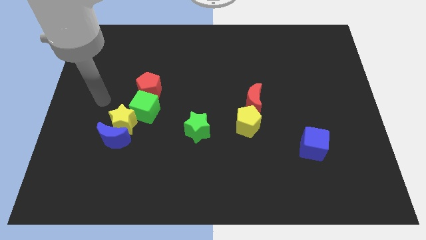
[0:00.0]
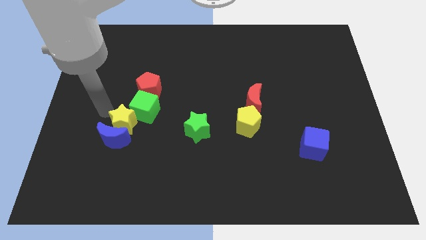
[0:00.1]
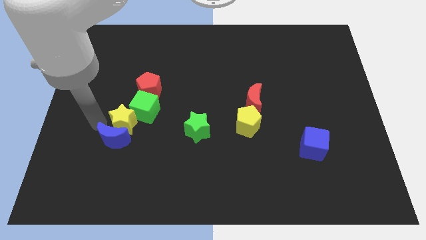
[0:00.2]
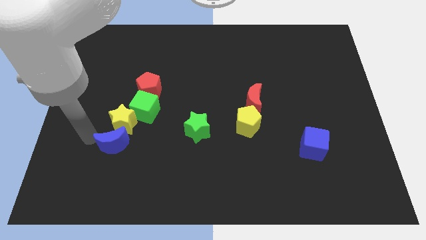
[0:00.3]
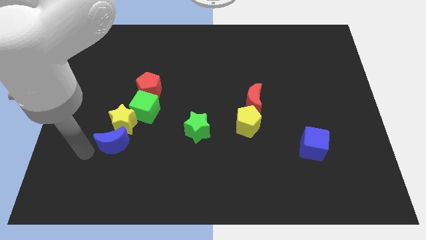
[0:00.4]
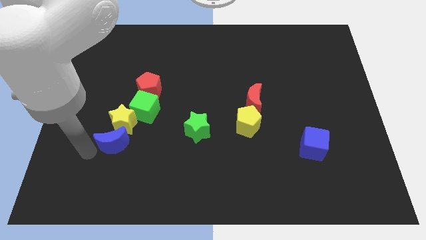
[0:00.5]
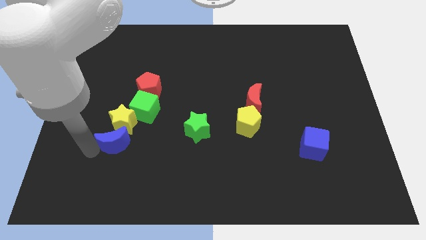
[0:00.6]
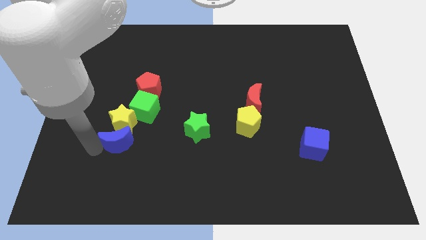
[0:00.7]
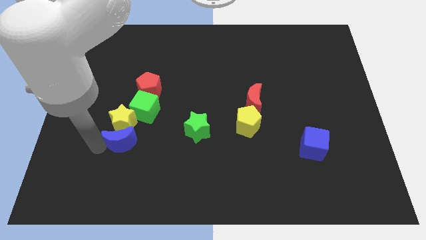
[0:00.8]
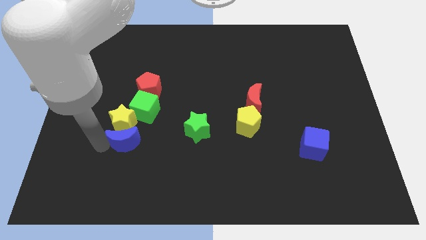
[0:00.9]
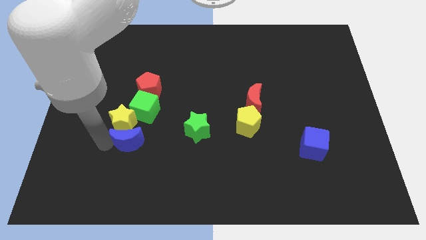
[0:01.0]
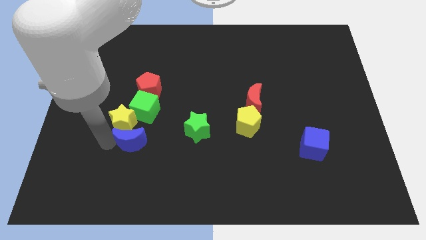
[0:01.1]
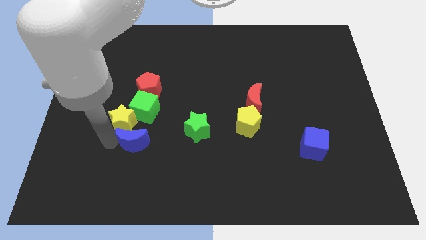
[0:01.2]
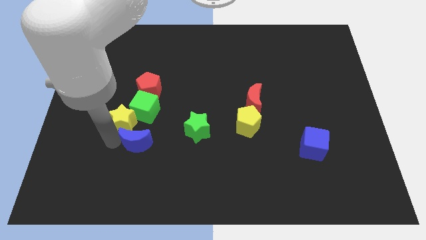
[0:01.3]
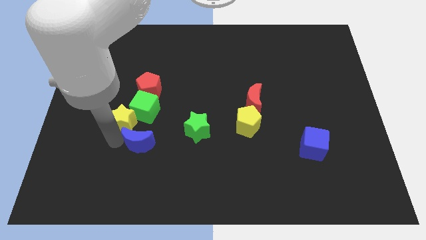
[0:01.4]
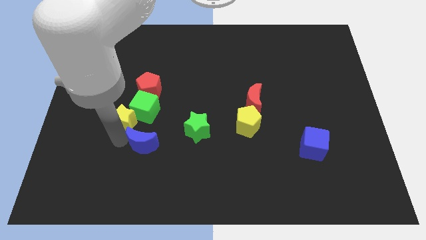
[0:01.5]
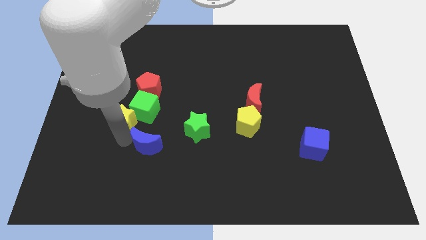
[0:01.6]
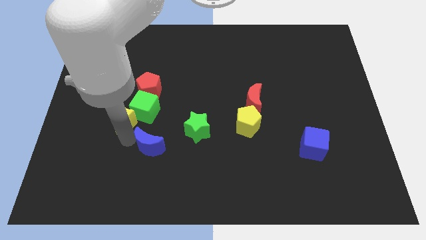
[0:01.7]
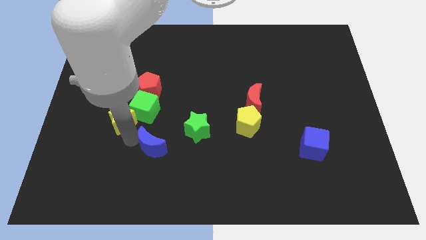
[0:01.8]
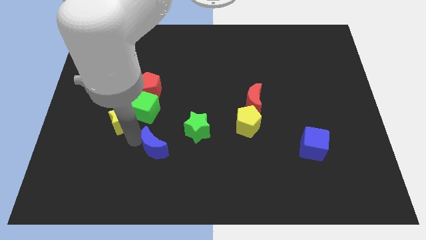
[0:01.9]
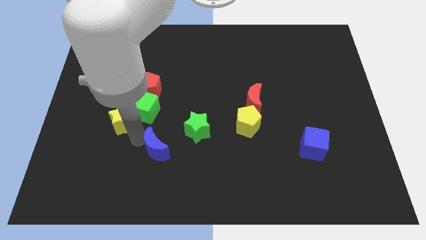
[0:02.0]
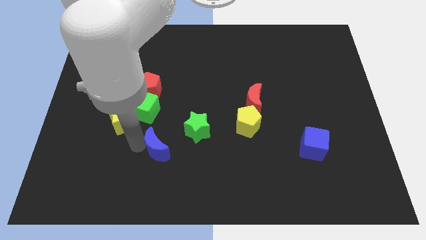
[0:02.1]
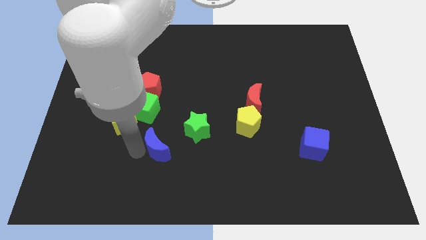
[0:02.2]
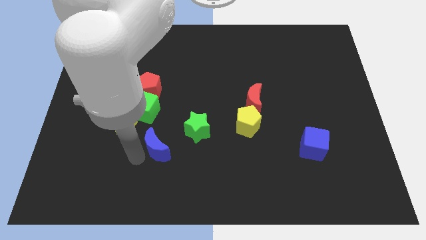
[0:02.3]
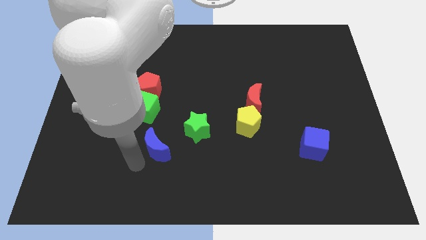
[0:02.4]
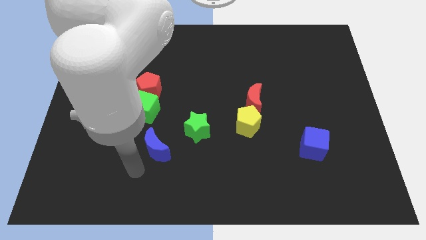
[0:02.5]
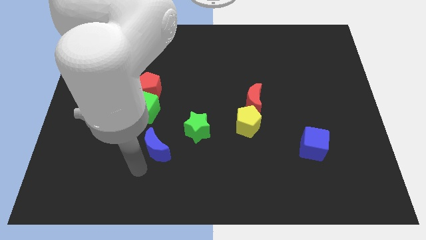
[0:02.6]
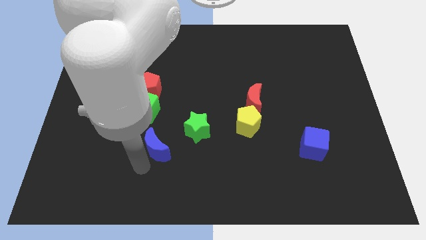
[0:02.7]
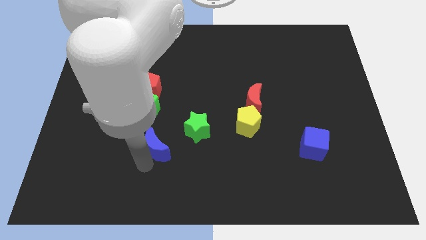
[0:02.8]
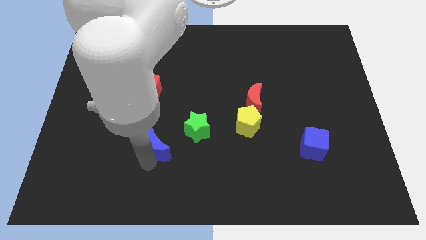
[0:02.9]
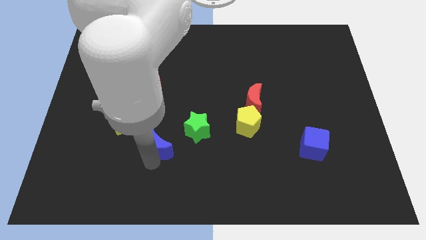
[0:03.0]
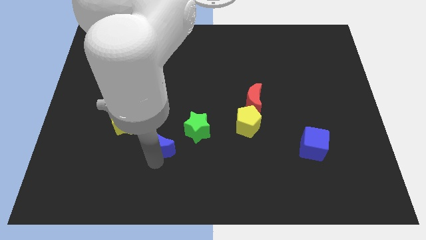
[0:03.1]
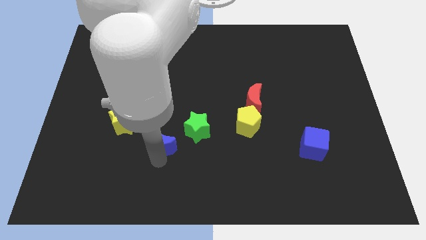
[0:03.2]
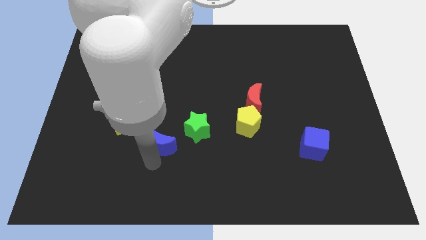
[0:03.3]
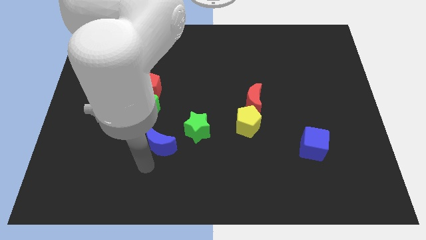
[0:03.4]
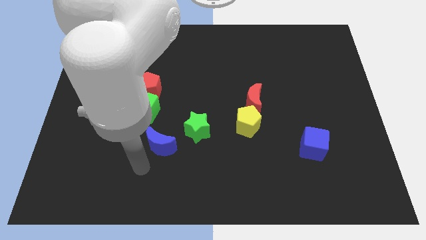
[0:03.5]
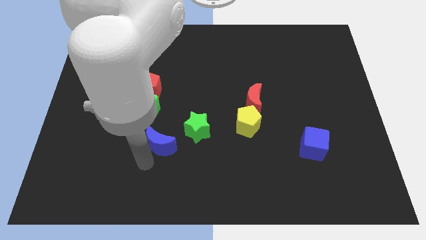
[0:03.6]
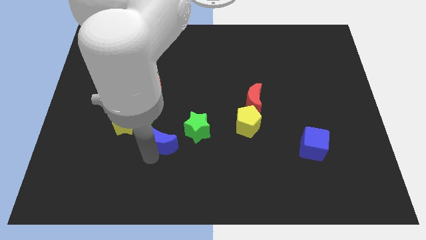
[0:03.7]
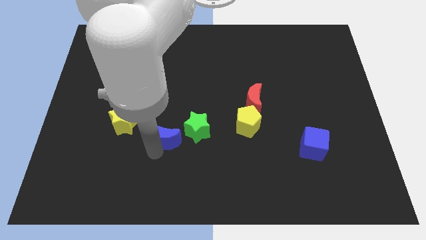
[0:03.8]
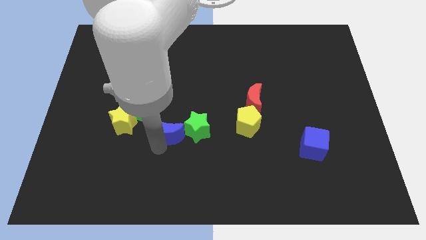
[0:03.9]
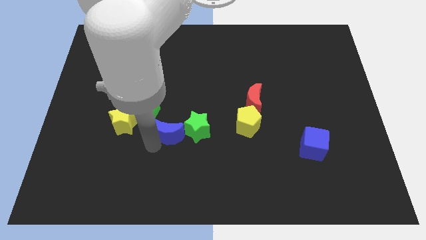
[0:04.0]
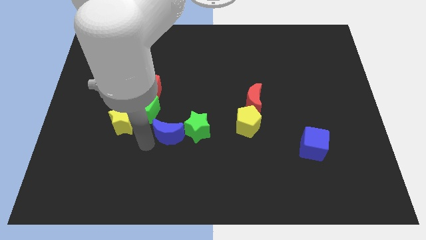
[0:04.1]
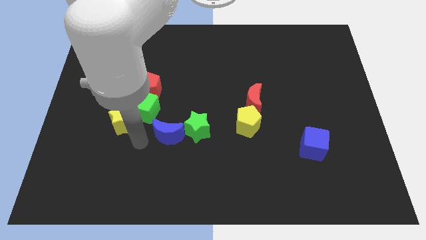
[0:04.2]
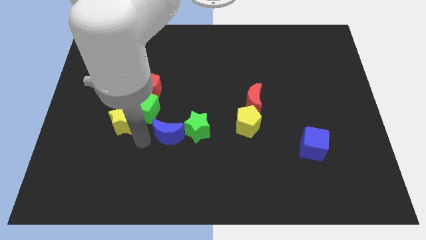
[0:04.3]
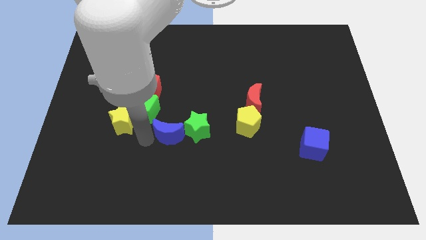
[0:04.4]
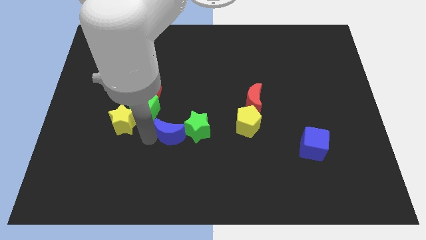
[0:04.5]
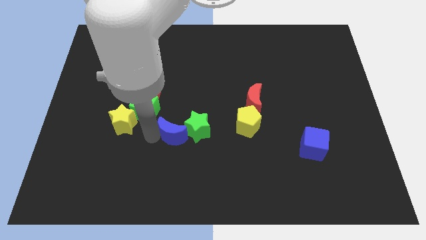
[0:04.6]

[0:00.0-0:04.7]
put the blue moon close to the green star

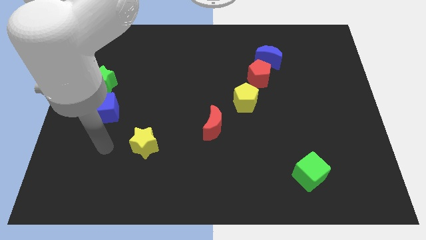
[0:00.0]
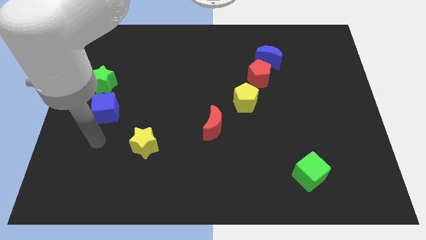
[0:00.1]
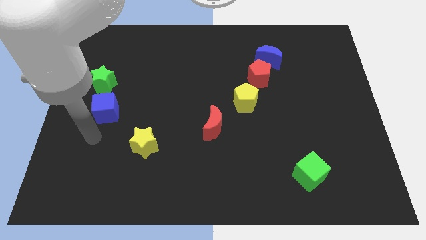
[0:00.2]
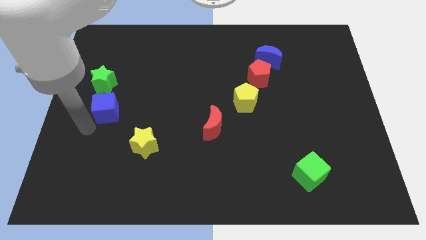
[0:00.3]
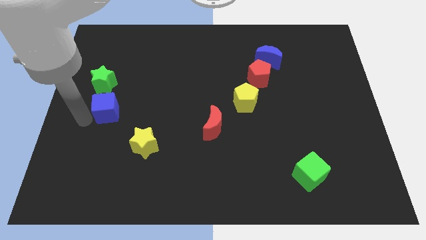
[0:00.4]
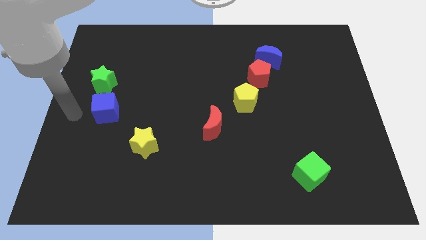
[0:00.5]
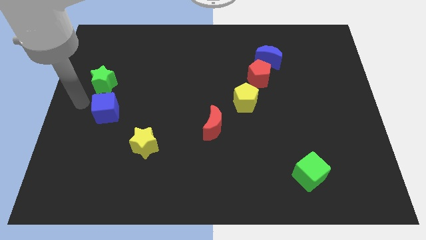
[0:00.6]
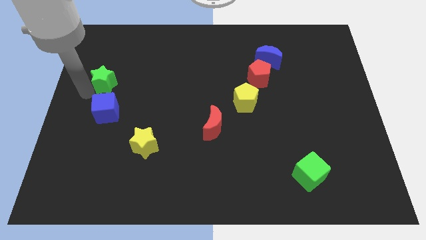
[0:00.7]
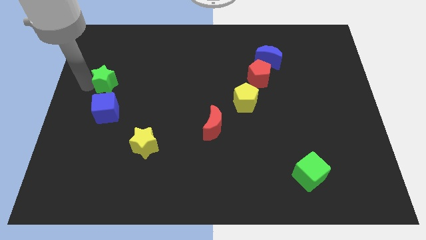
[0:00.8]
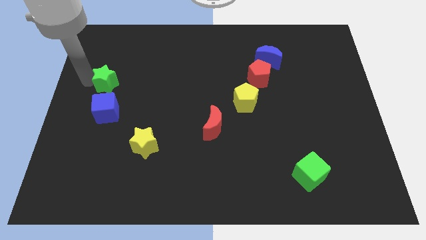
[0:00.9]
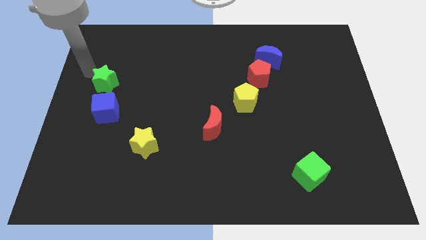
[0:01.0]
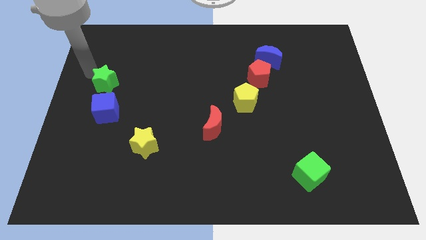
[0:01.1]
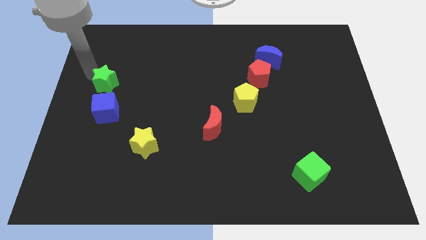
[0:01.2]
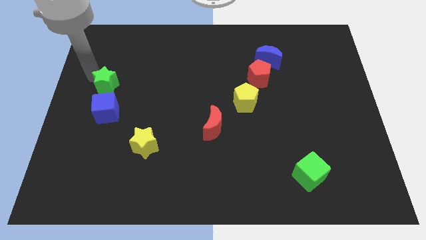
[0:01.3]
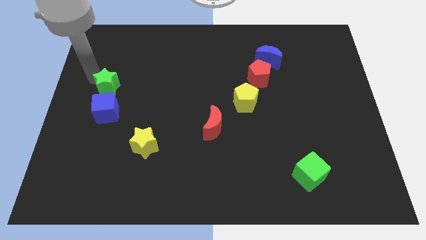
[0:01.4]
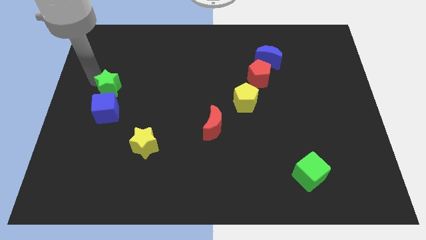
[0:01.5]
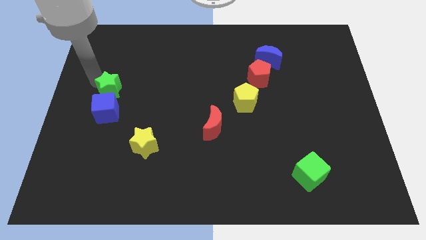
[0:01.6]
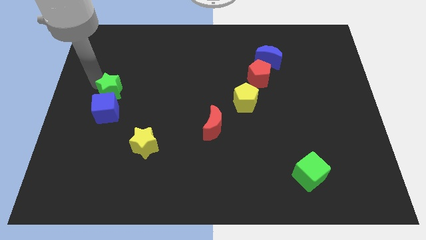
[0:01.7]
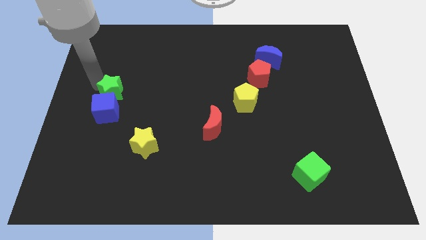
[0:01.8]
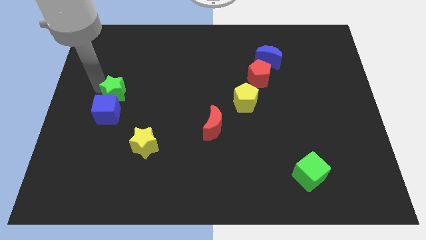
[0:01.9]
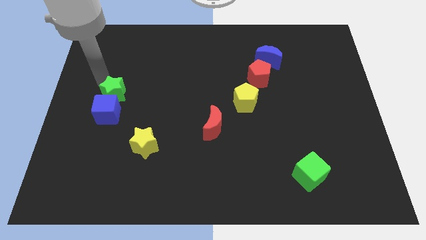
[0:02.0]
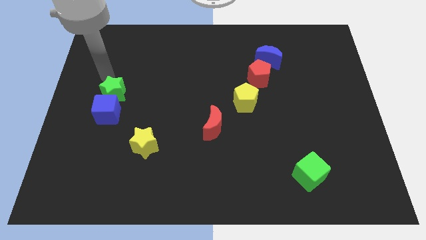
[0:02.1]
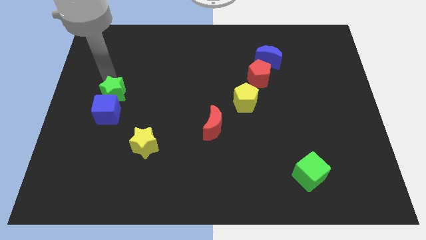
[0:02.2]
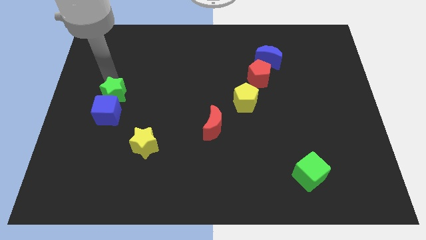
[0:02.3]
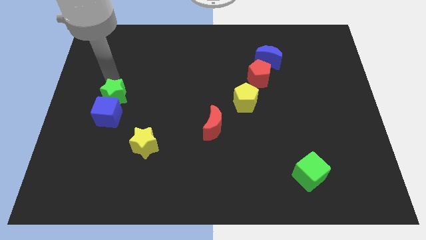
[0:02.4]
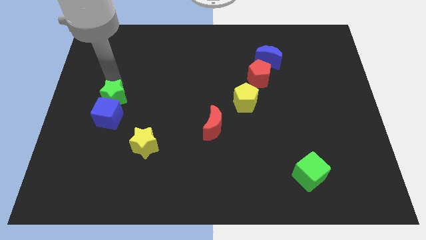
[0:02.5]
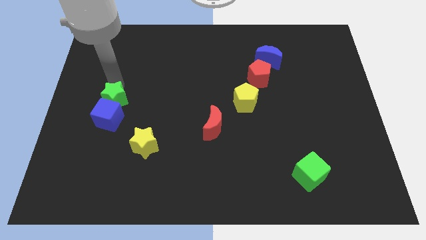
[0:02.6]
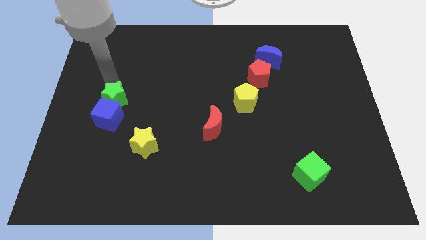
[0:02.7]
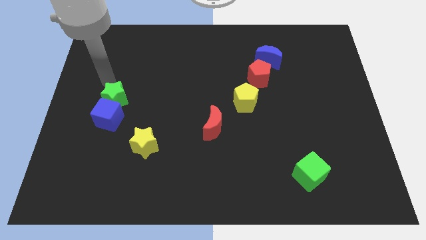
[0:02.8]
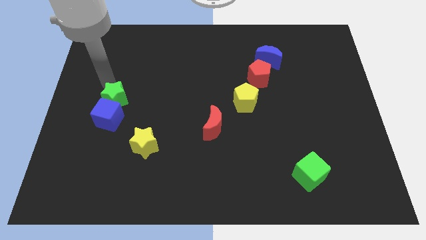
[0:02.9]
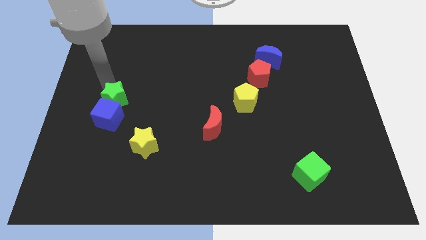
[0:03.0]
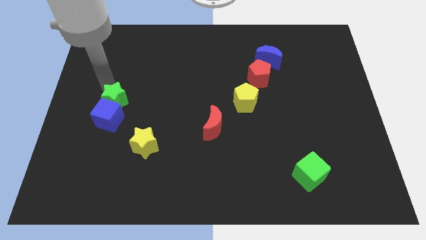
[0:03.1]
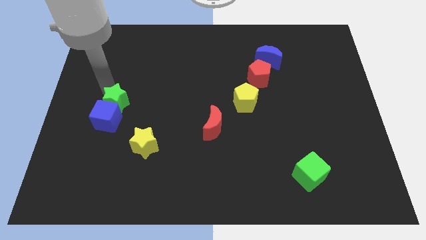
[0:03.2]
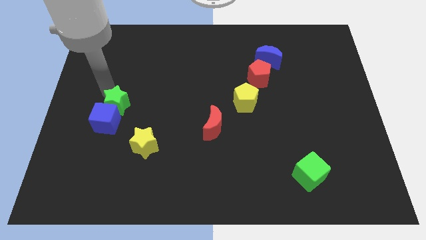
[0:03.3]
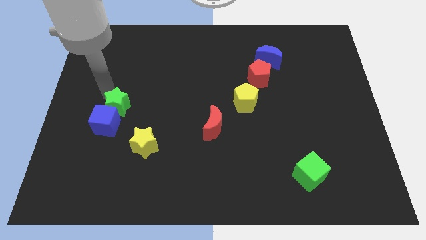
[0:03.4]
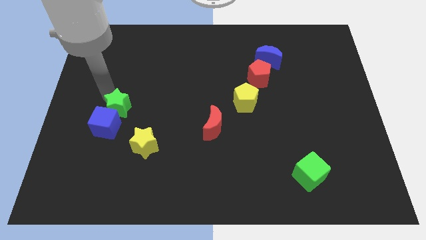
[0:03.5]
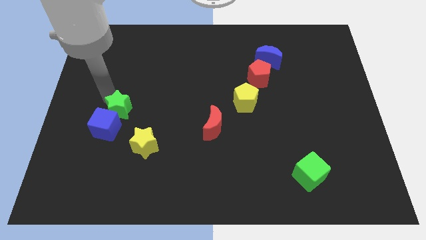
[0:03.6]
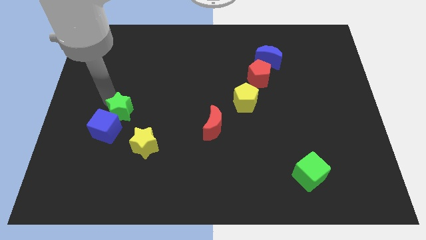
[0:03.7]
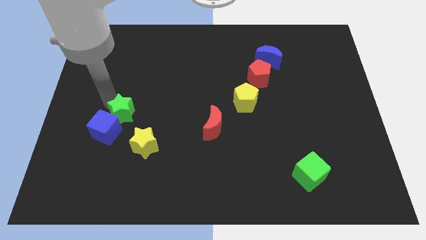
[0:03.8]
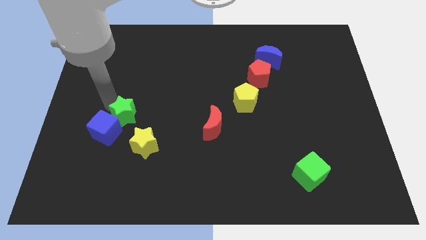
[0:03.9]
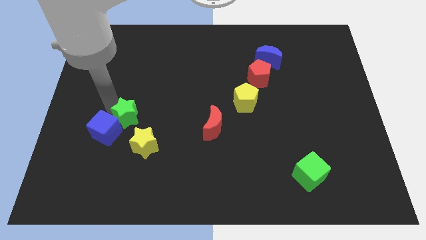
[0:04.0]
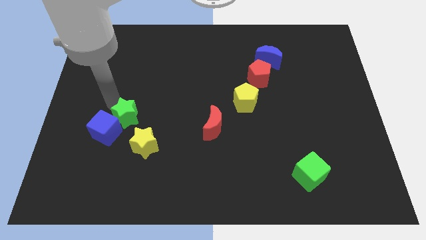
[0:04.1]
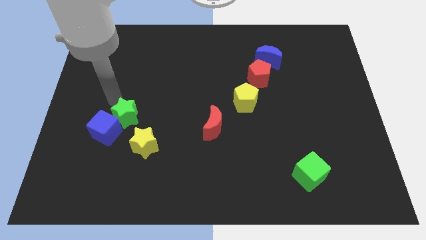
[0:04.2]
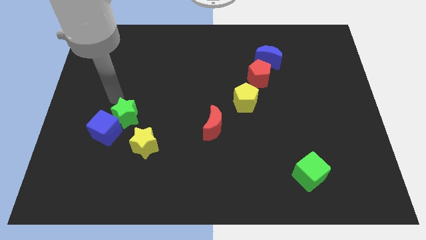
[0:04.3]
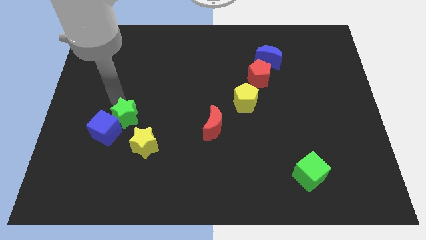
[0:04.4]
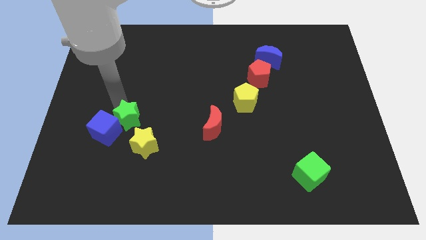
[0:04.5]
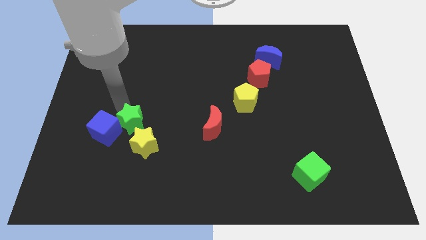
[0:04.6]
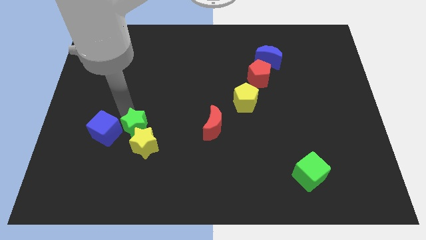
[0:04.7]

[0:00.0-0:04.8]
slide the green star towards the yellow star
